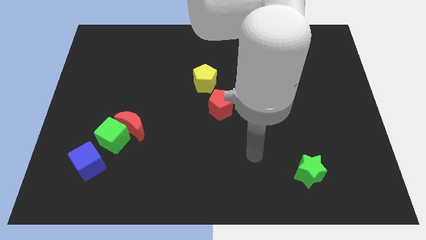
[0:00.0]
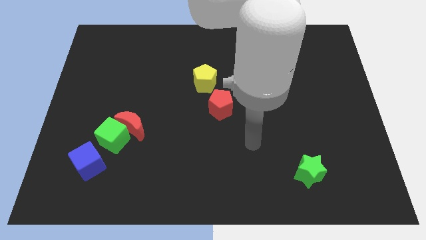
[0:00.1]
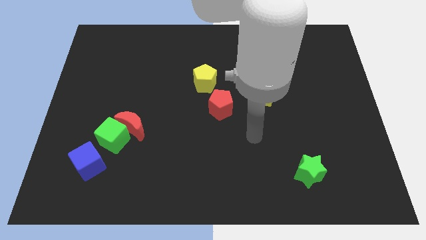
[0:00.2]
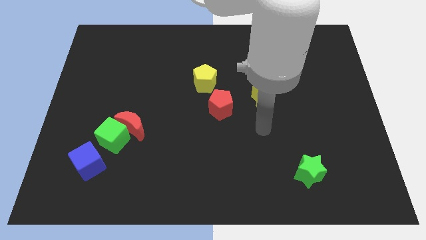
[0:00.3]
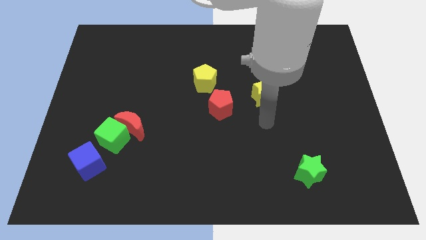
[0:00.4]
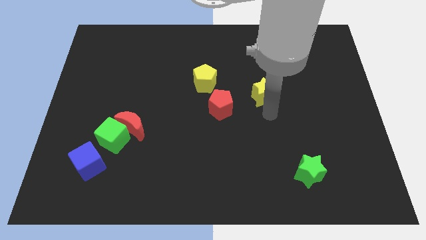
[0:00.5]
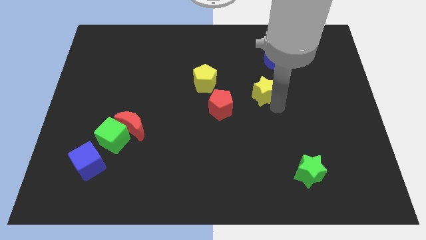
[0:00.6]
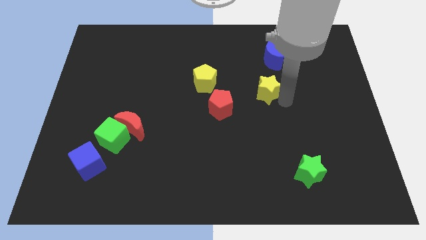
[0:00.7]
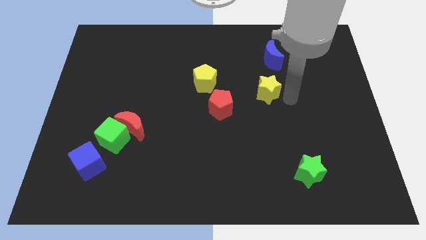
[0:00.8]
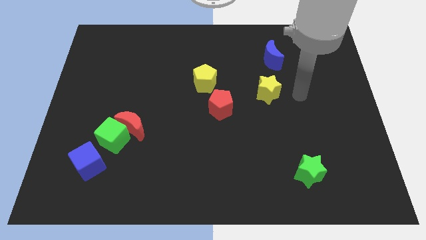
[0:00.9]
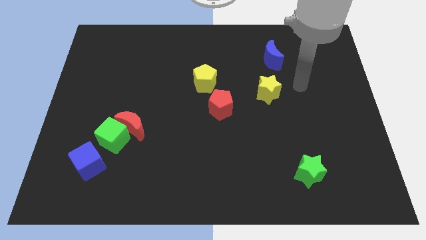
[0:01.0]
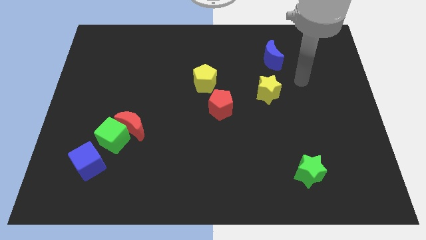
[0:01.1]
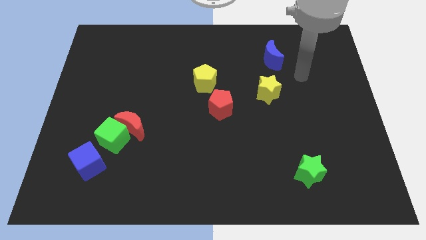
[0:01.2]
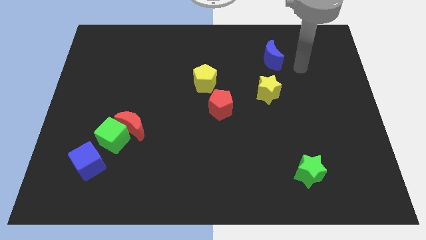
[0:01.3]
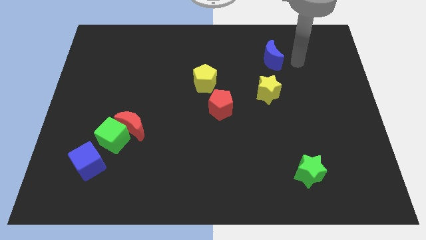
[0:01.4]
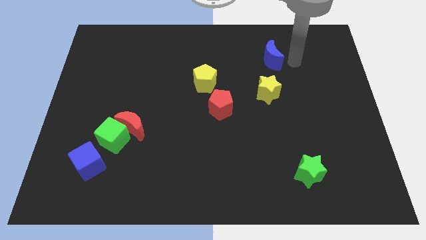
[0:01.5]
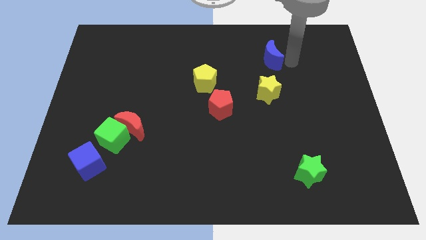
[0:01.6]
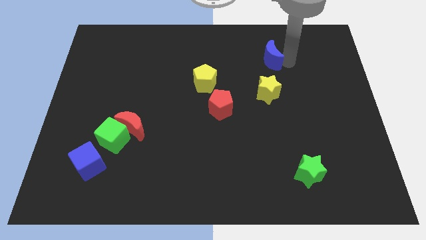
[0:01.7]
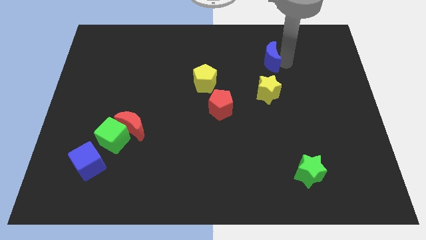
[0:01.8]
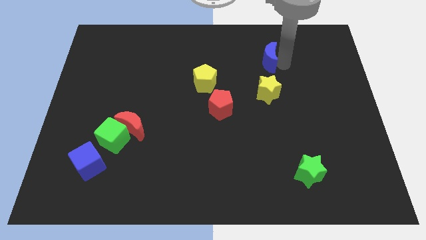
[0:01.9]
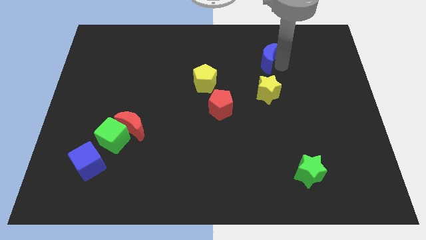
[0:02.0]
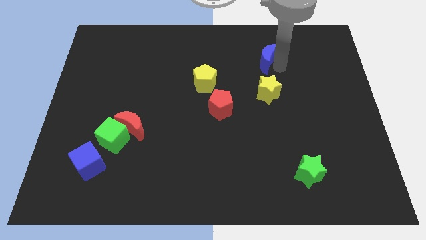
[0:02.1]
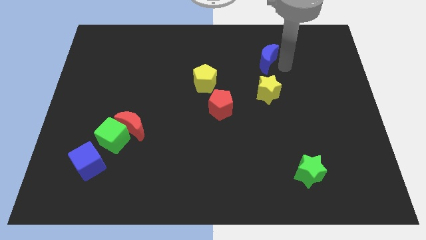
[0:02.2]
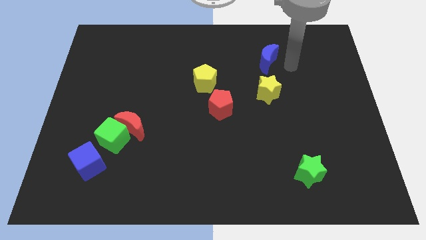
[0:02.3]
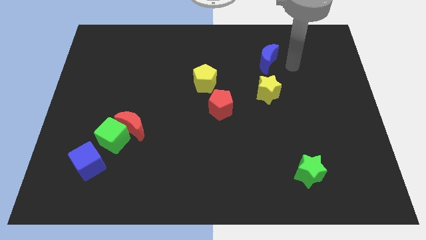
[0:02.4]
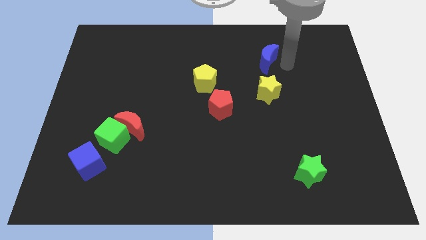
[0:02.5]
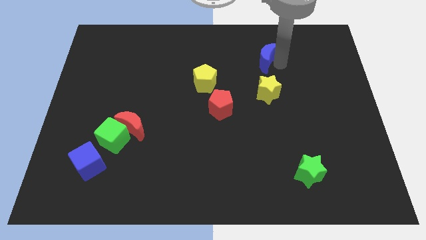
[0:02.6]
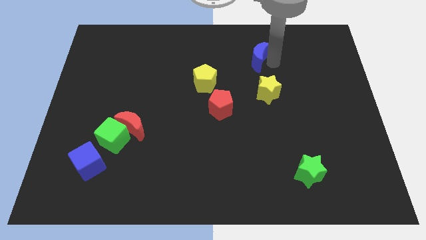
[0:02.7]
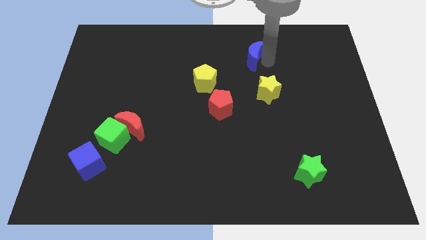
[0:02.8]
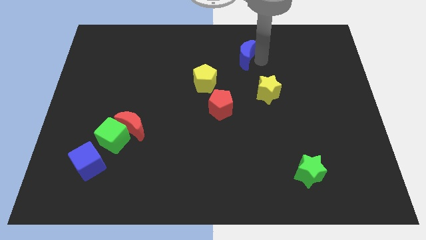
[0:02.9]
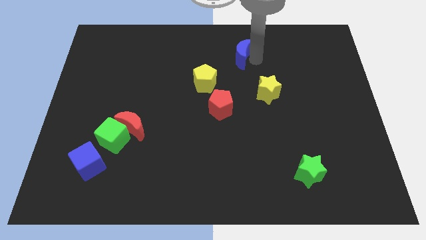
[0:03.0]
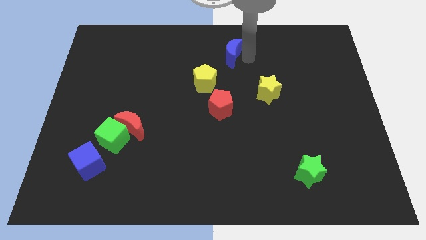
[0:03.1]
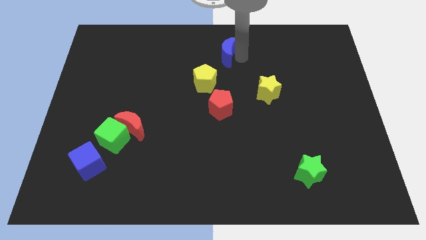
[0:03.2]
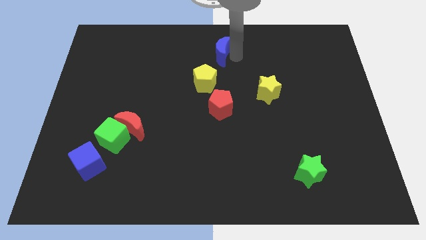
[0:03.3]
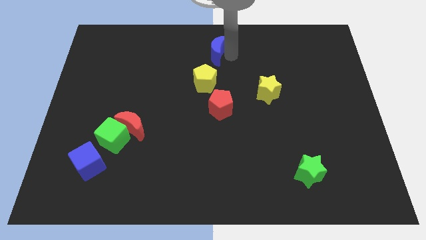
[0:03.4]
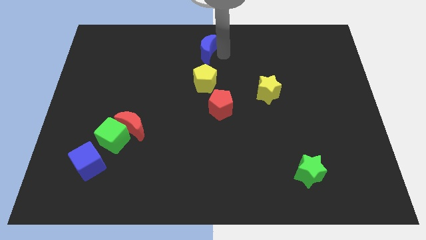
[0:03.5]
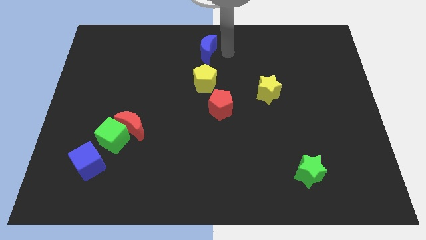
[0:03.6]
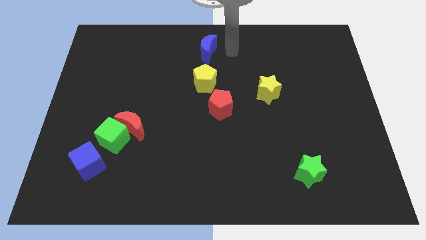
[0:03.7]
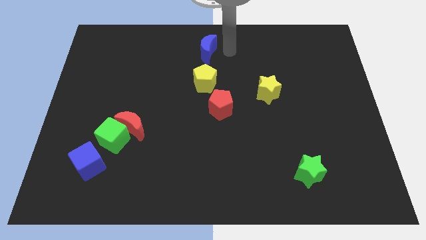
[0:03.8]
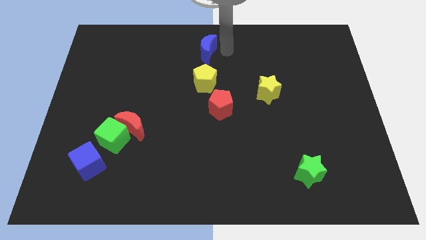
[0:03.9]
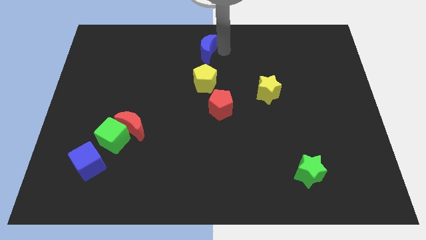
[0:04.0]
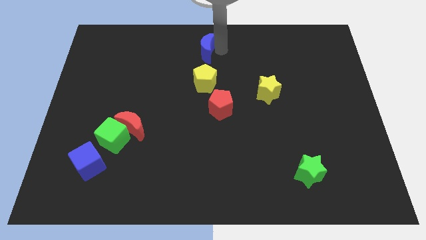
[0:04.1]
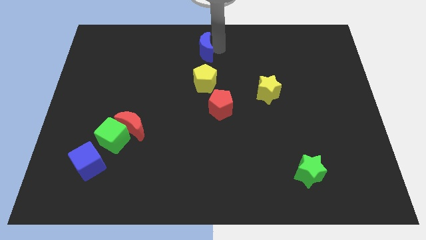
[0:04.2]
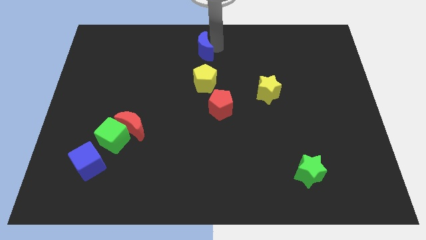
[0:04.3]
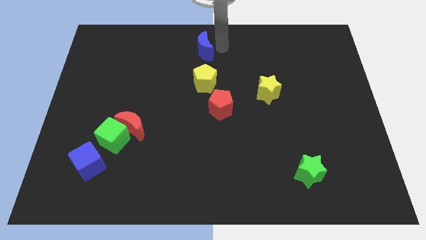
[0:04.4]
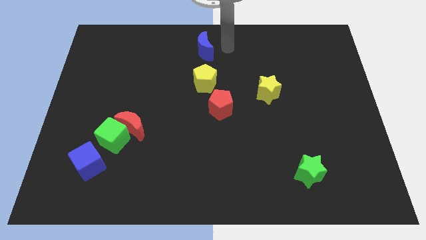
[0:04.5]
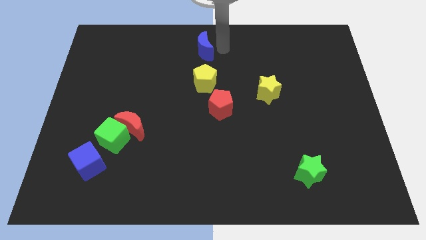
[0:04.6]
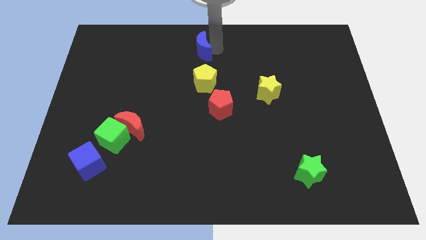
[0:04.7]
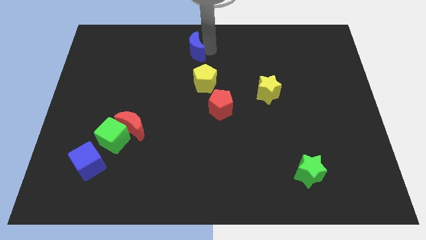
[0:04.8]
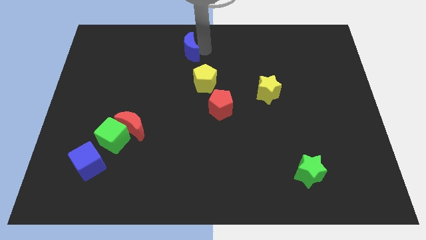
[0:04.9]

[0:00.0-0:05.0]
slide the blue moon to the left

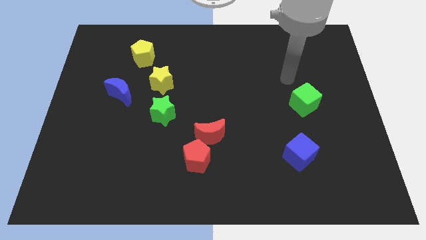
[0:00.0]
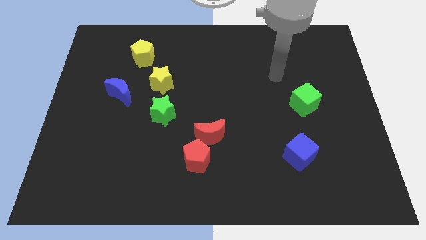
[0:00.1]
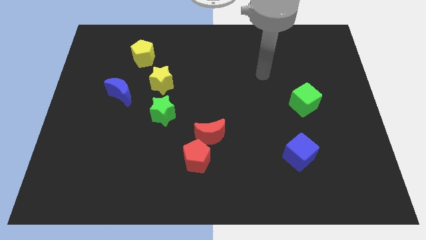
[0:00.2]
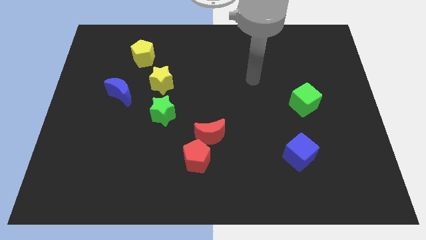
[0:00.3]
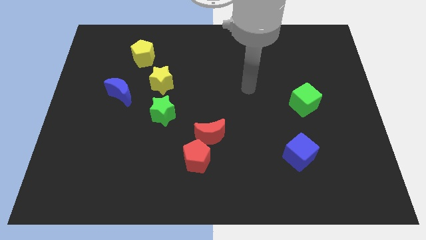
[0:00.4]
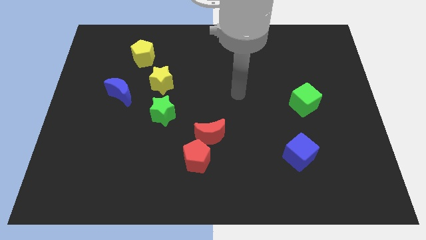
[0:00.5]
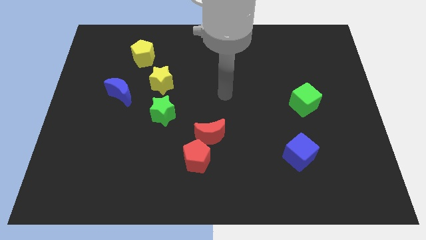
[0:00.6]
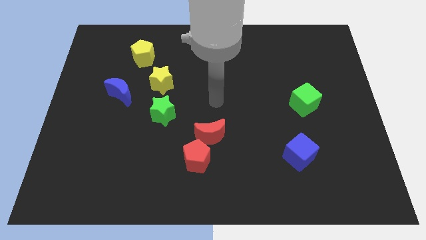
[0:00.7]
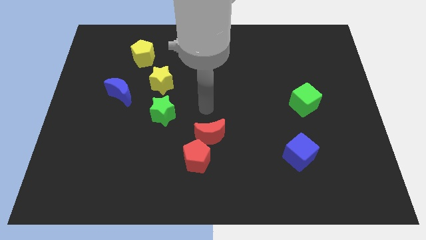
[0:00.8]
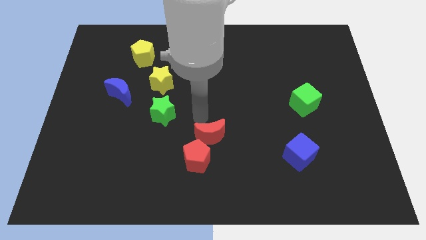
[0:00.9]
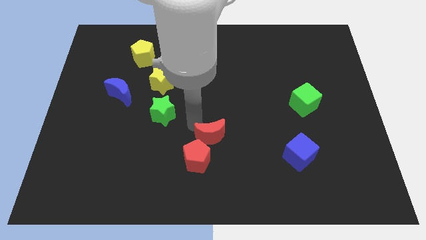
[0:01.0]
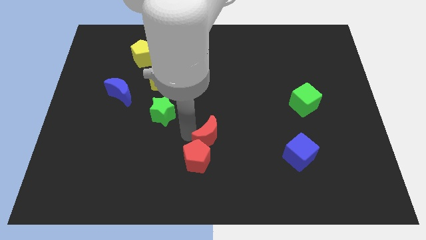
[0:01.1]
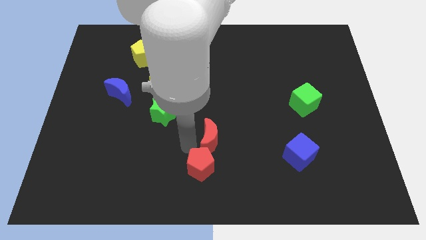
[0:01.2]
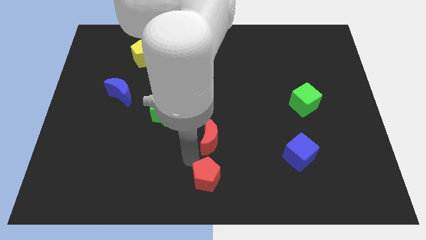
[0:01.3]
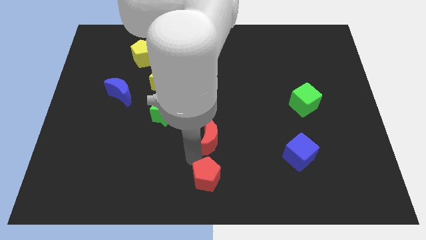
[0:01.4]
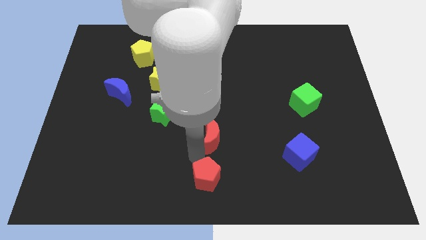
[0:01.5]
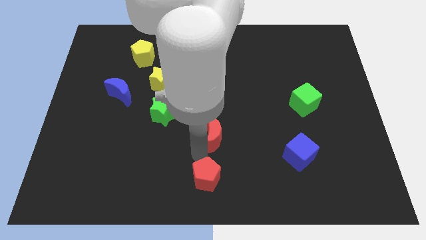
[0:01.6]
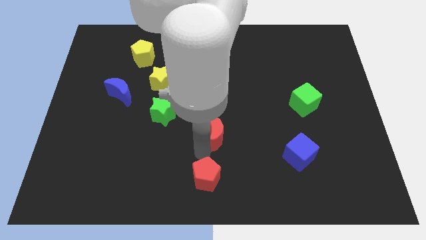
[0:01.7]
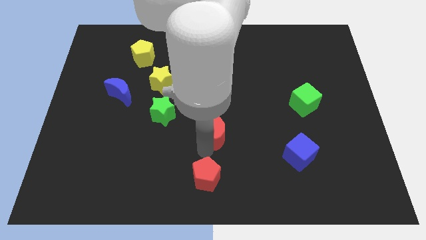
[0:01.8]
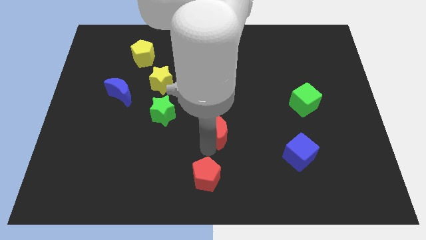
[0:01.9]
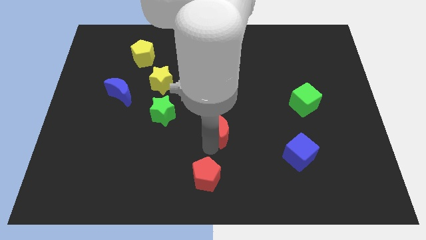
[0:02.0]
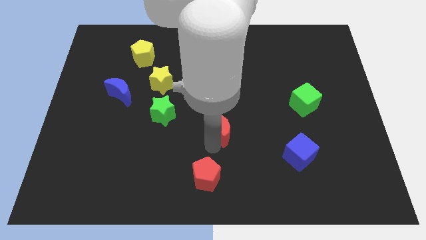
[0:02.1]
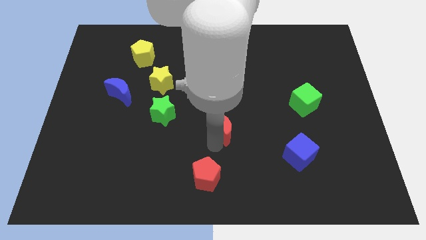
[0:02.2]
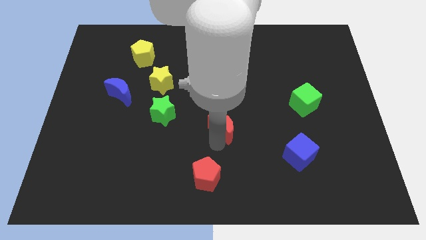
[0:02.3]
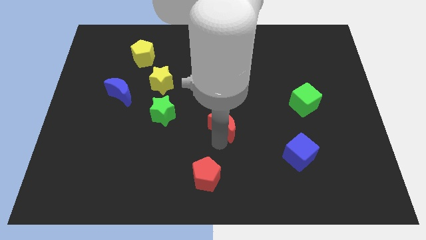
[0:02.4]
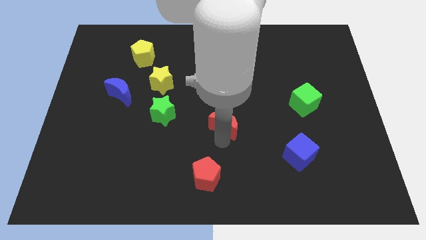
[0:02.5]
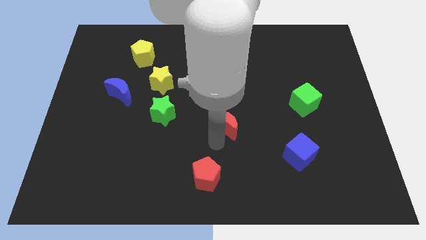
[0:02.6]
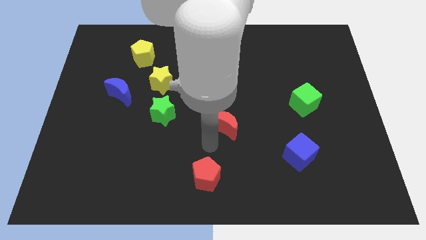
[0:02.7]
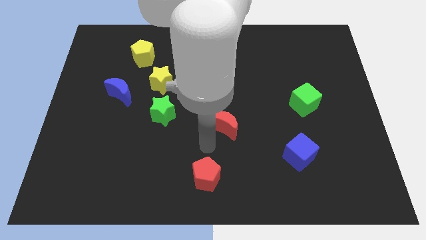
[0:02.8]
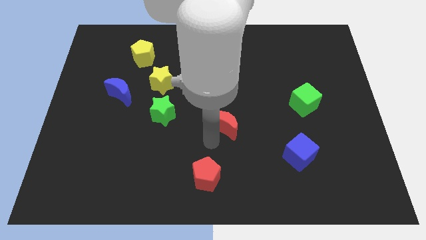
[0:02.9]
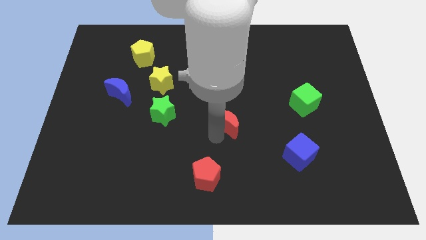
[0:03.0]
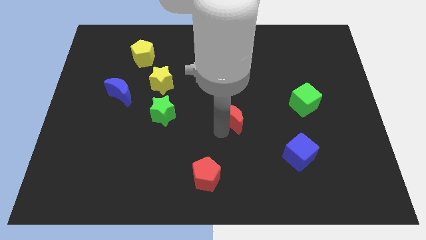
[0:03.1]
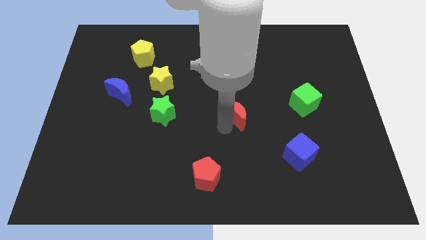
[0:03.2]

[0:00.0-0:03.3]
slightly move the red moon diagonally upwards and right
